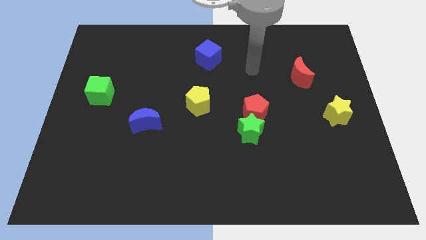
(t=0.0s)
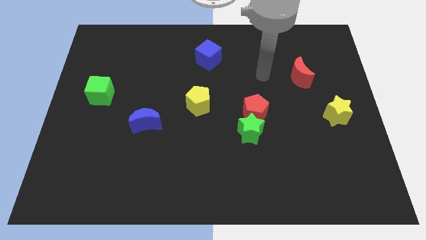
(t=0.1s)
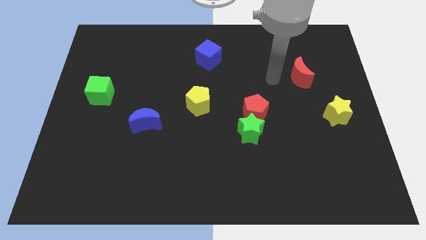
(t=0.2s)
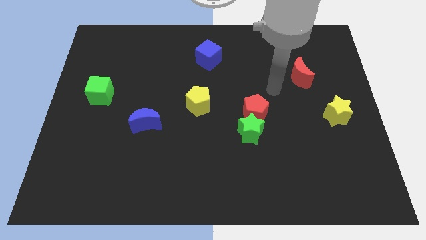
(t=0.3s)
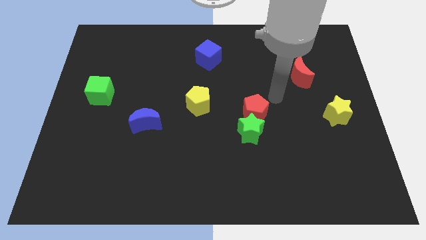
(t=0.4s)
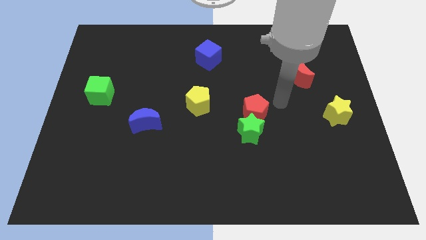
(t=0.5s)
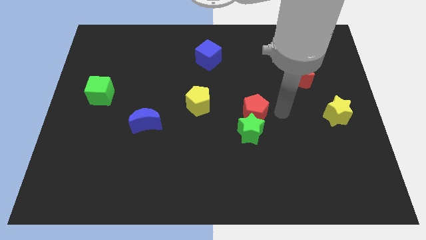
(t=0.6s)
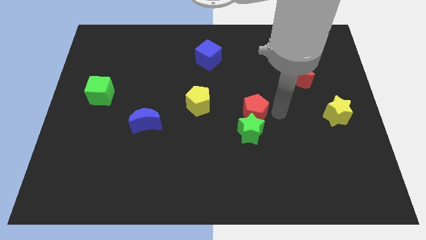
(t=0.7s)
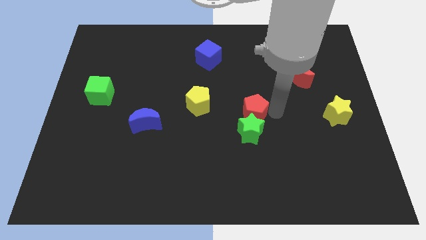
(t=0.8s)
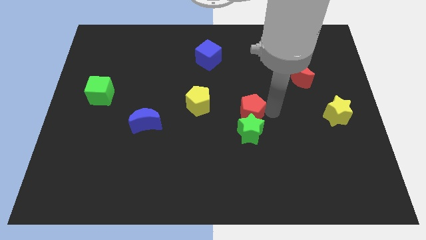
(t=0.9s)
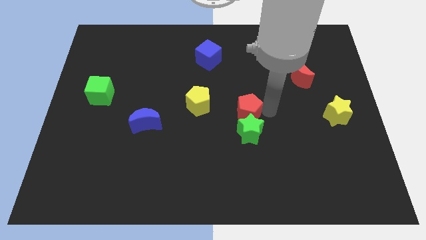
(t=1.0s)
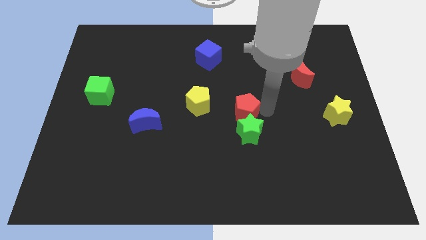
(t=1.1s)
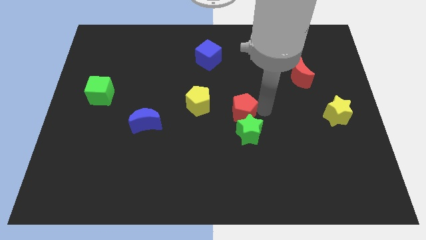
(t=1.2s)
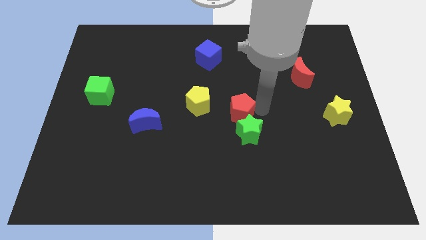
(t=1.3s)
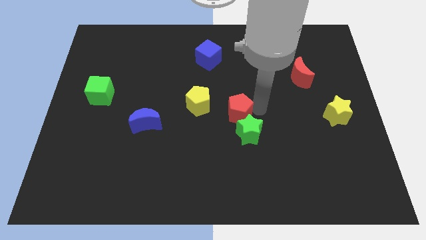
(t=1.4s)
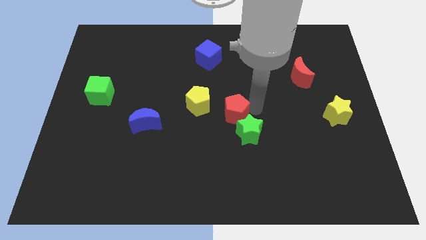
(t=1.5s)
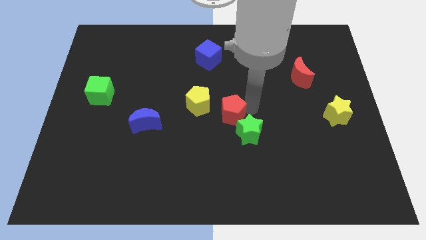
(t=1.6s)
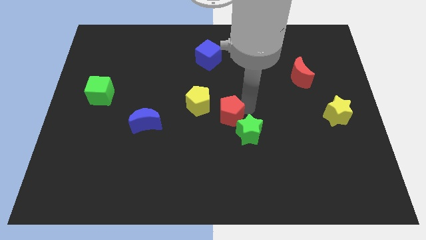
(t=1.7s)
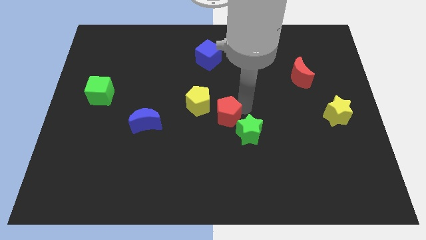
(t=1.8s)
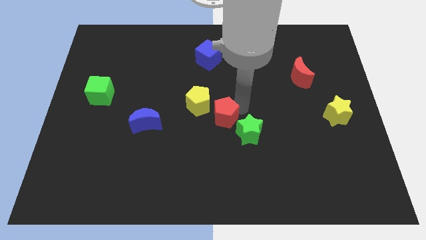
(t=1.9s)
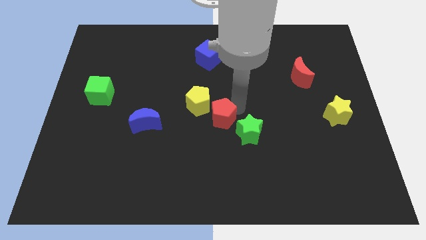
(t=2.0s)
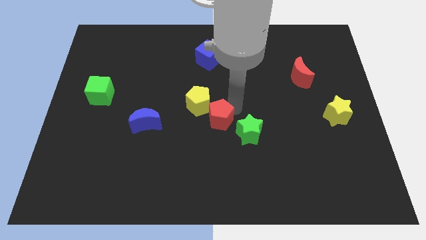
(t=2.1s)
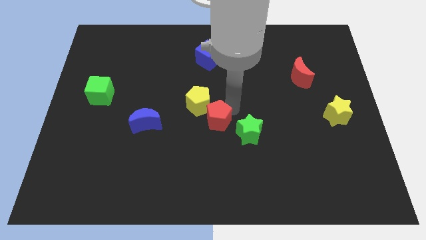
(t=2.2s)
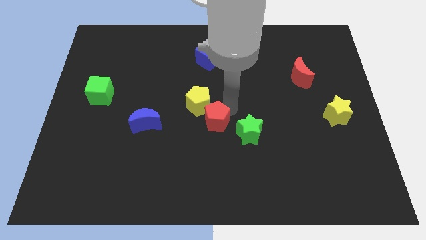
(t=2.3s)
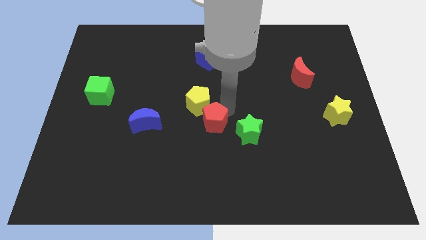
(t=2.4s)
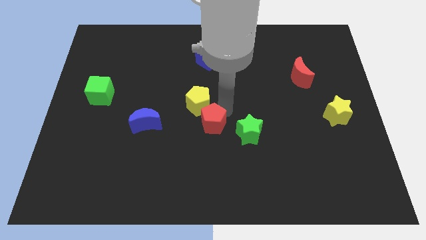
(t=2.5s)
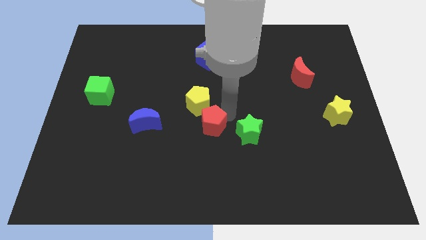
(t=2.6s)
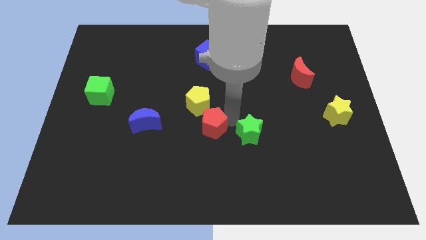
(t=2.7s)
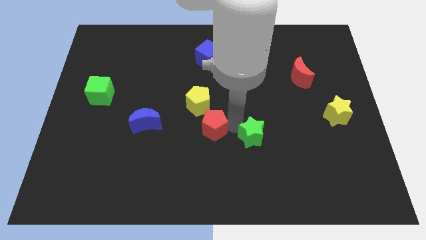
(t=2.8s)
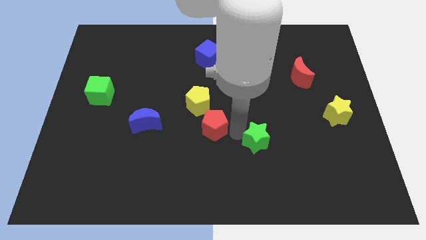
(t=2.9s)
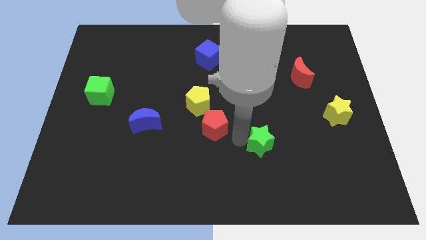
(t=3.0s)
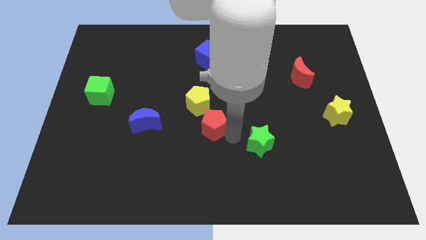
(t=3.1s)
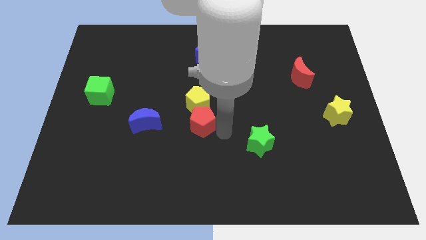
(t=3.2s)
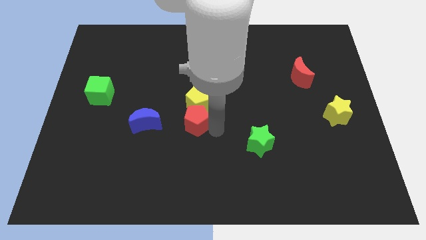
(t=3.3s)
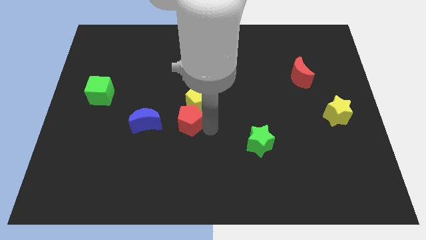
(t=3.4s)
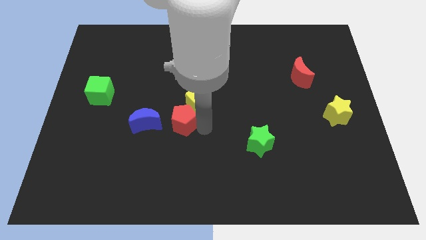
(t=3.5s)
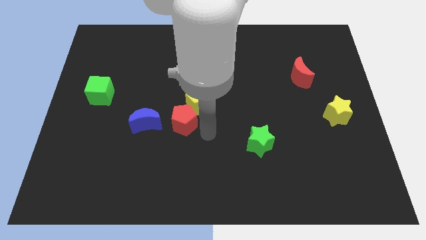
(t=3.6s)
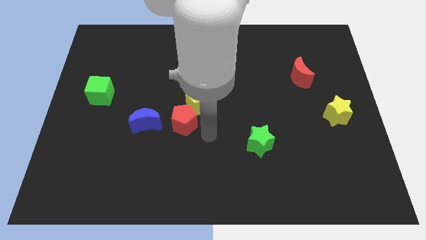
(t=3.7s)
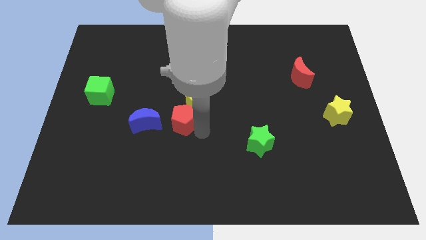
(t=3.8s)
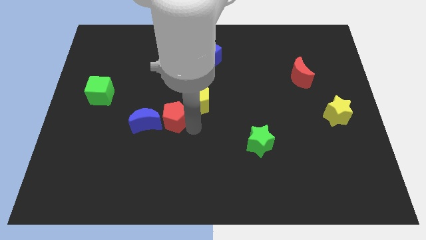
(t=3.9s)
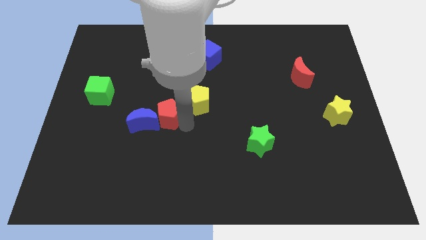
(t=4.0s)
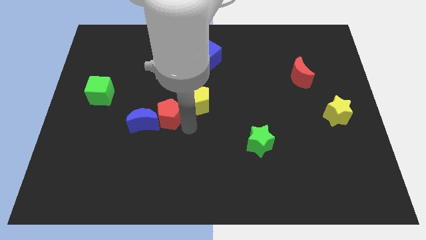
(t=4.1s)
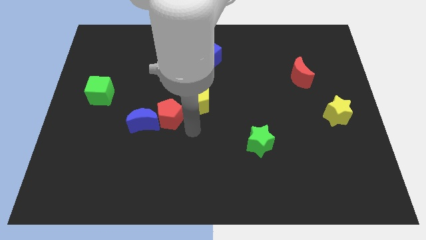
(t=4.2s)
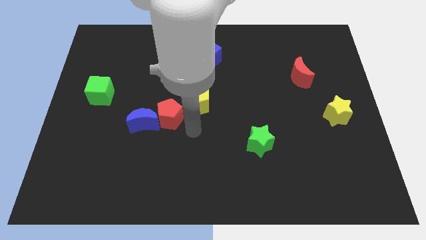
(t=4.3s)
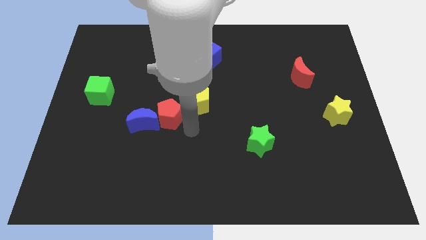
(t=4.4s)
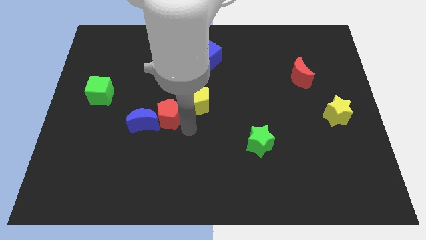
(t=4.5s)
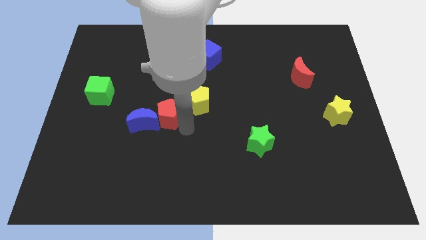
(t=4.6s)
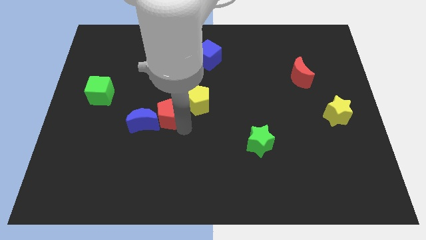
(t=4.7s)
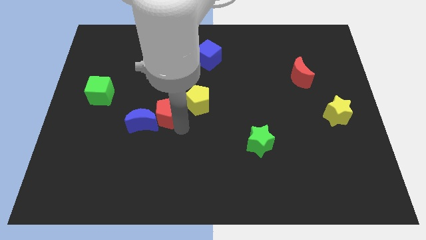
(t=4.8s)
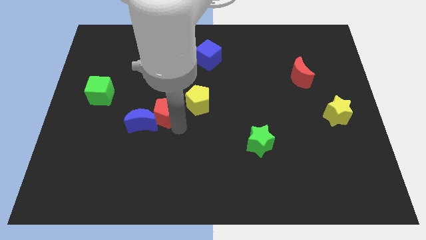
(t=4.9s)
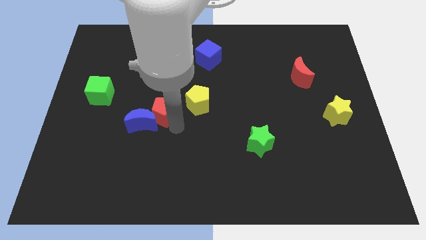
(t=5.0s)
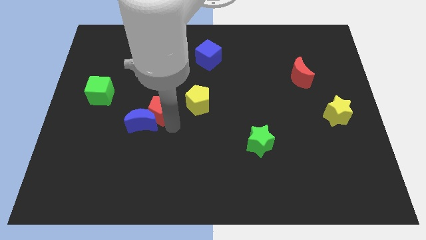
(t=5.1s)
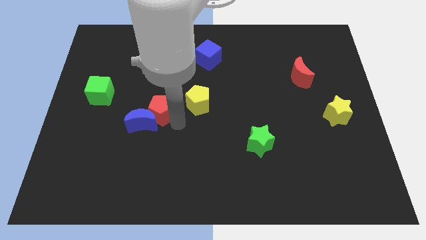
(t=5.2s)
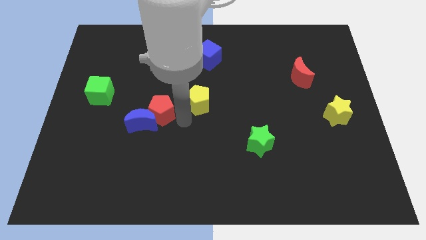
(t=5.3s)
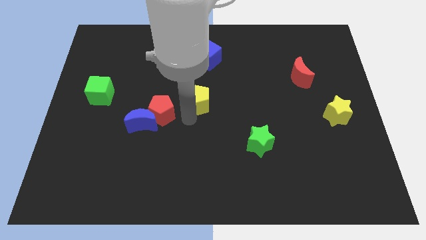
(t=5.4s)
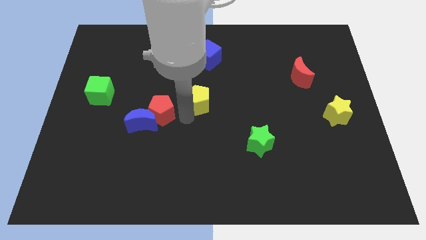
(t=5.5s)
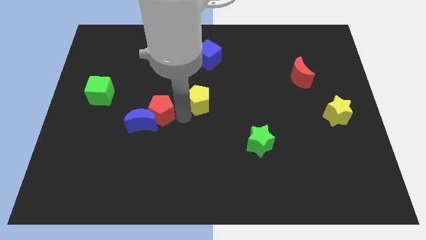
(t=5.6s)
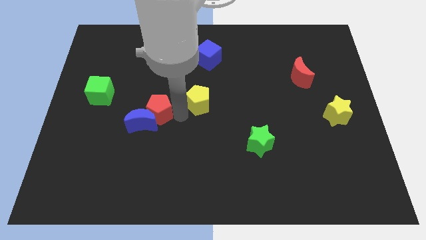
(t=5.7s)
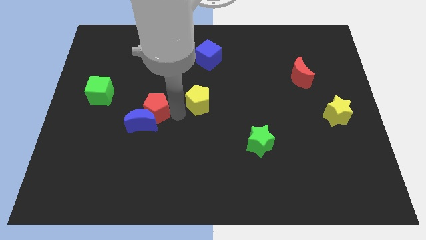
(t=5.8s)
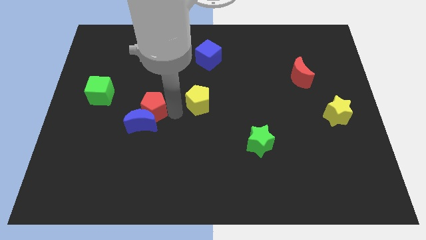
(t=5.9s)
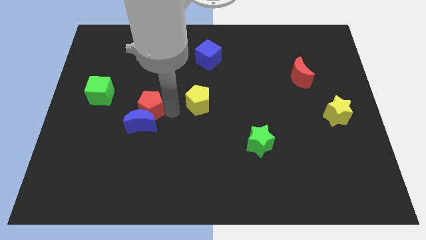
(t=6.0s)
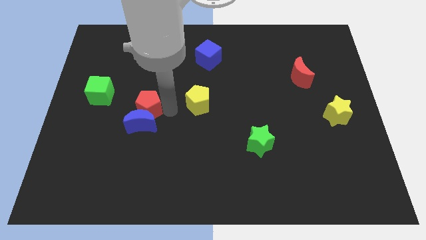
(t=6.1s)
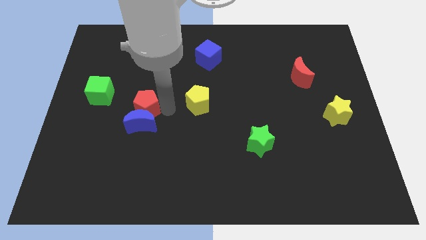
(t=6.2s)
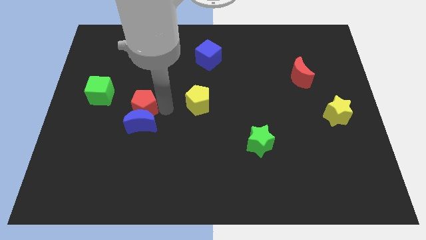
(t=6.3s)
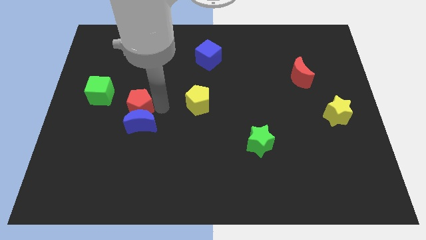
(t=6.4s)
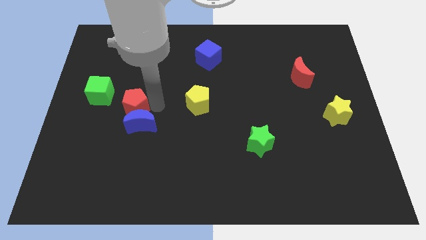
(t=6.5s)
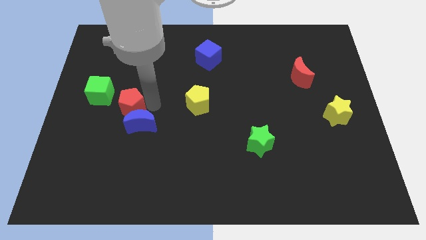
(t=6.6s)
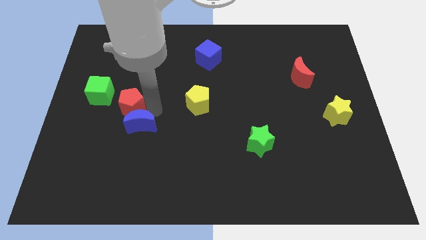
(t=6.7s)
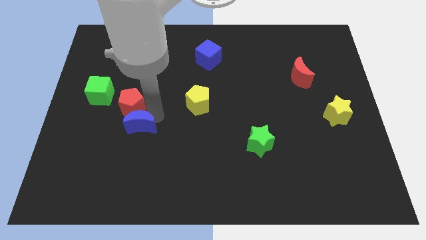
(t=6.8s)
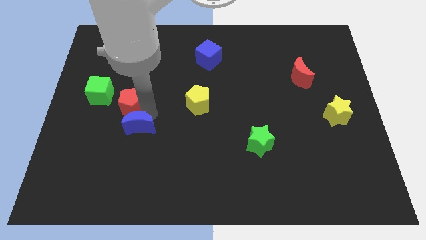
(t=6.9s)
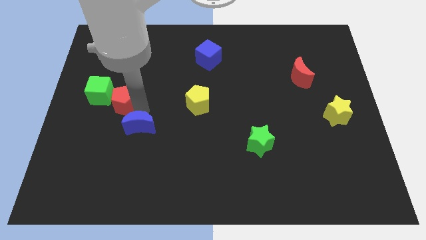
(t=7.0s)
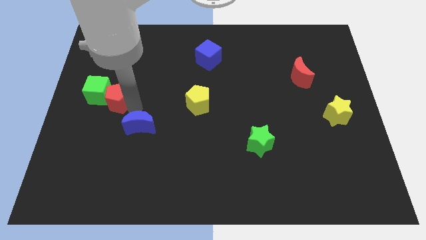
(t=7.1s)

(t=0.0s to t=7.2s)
move the red pentagon towards the green cube

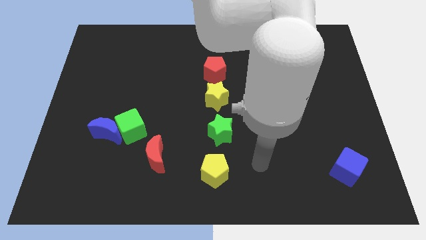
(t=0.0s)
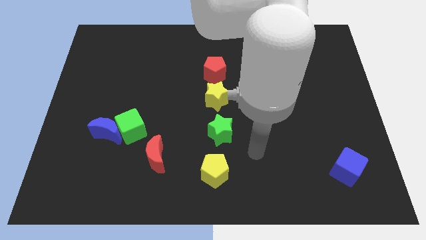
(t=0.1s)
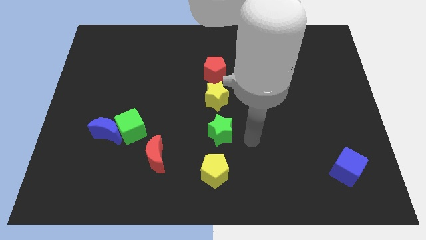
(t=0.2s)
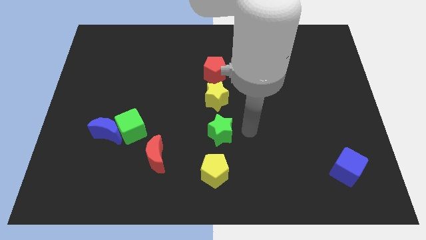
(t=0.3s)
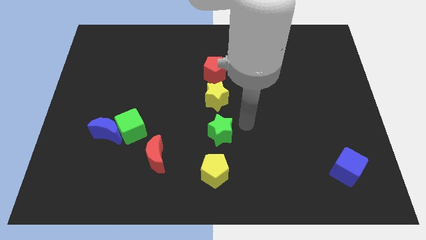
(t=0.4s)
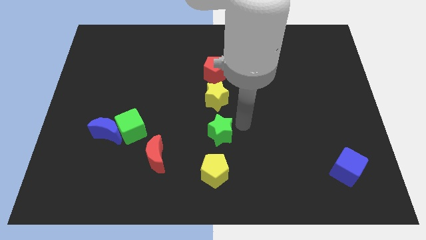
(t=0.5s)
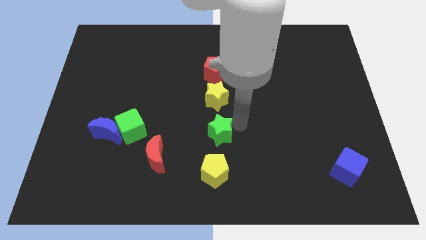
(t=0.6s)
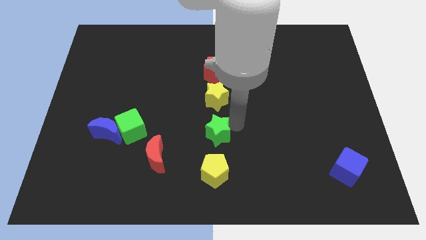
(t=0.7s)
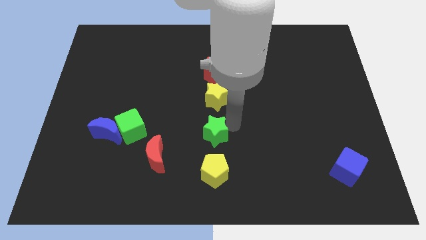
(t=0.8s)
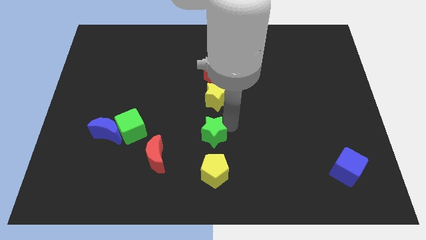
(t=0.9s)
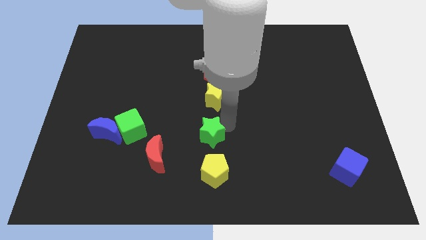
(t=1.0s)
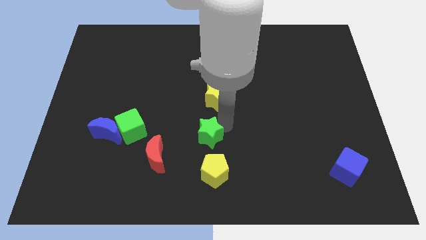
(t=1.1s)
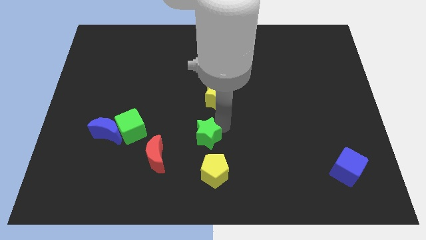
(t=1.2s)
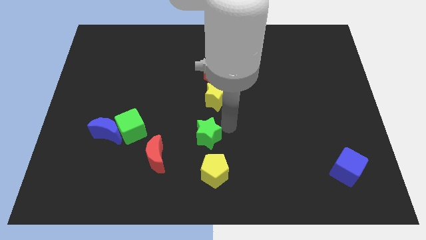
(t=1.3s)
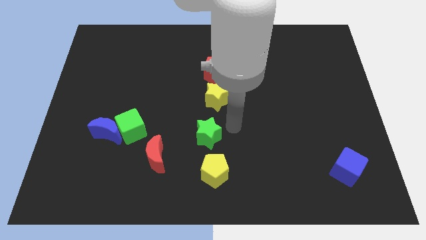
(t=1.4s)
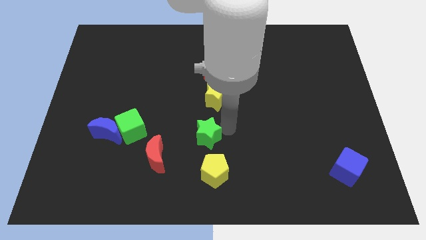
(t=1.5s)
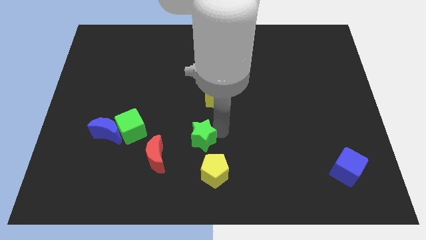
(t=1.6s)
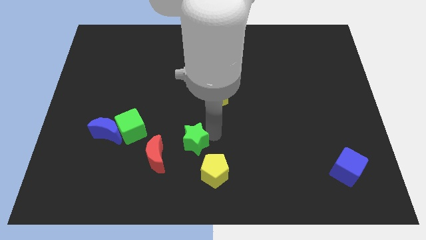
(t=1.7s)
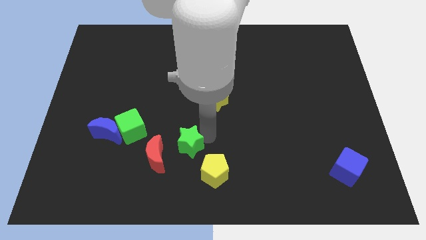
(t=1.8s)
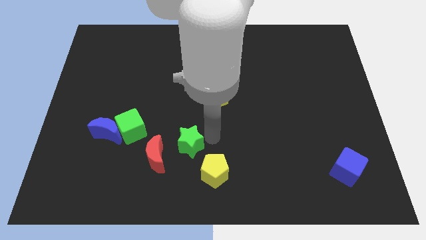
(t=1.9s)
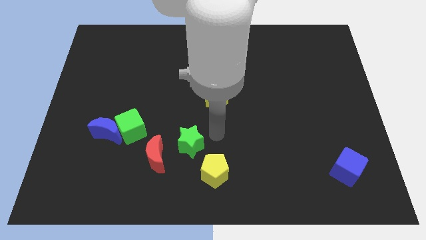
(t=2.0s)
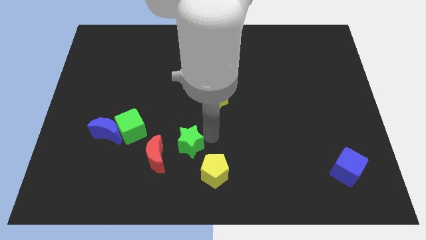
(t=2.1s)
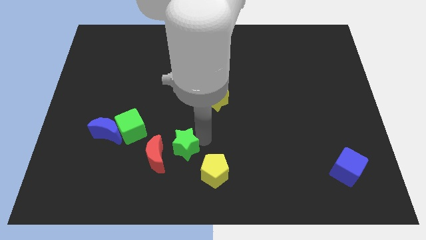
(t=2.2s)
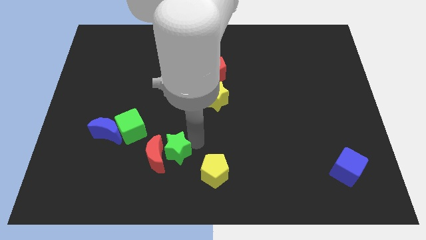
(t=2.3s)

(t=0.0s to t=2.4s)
put the green star next to the red moon
